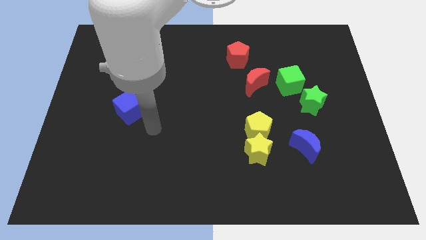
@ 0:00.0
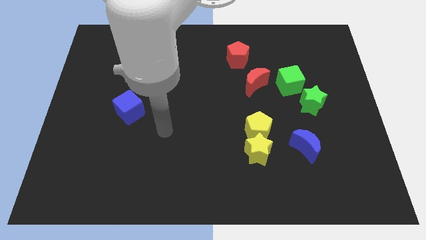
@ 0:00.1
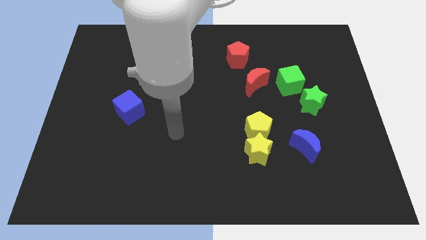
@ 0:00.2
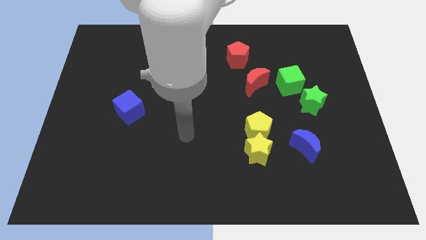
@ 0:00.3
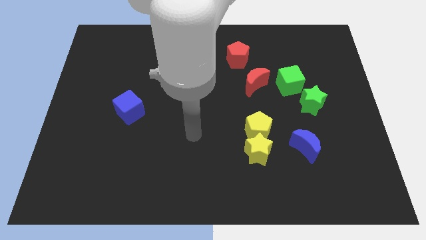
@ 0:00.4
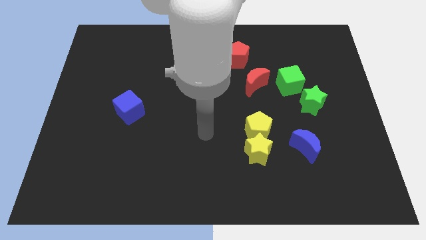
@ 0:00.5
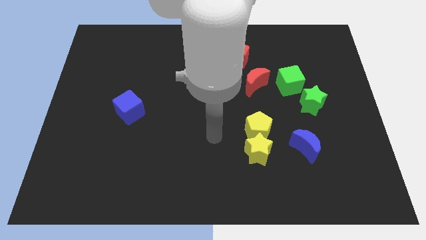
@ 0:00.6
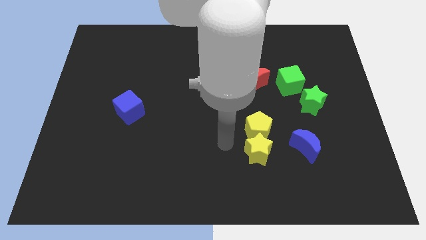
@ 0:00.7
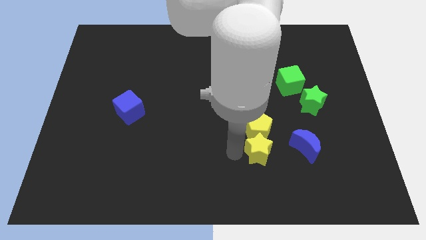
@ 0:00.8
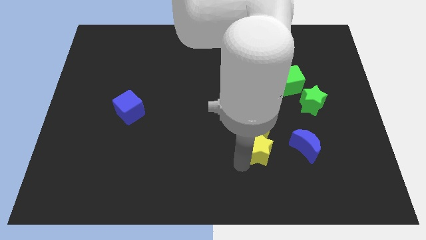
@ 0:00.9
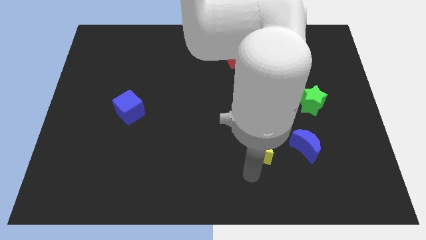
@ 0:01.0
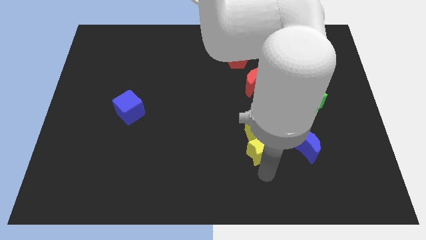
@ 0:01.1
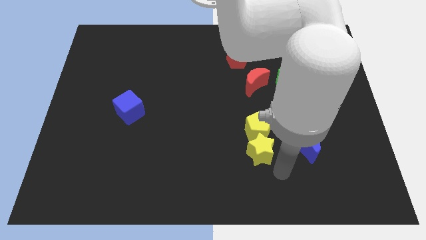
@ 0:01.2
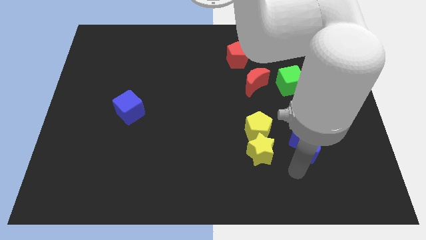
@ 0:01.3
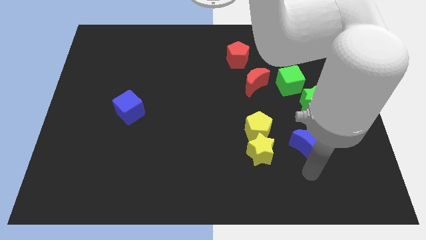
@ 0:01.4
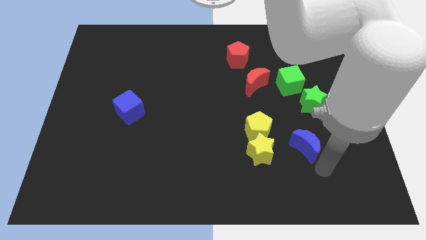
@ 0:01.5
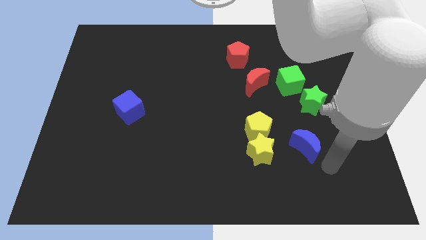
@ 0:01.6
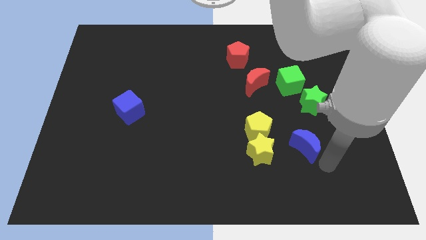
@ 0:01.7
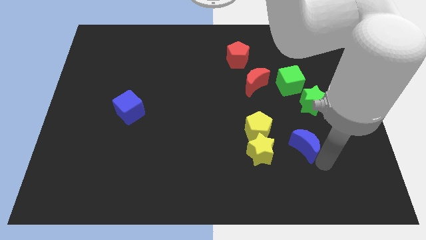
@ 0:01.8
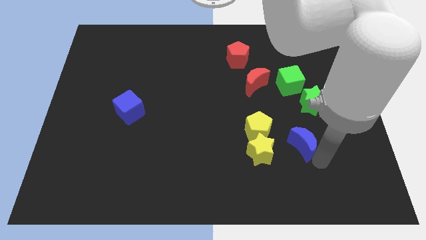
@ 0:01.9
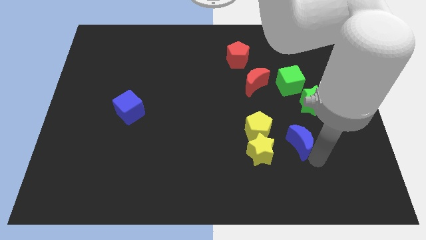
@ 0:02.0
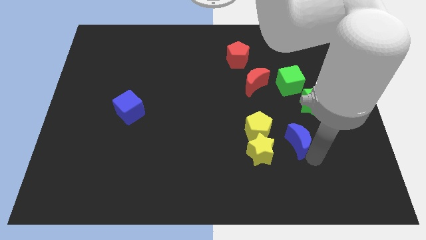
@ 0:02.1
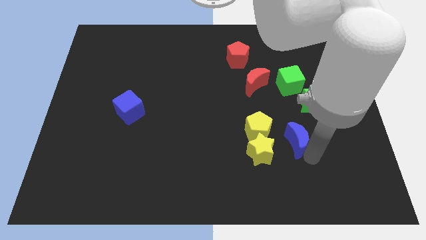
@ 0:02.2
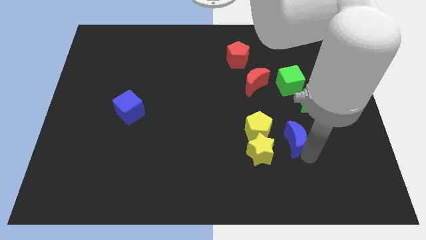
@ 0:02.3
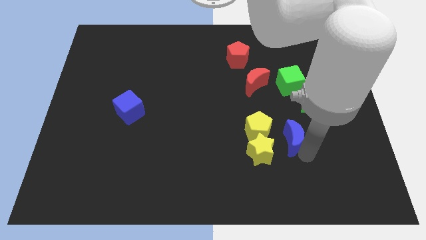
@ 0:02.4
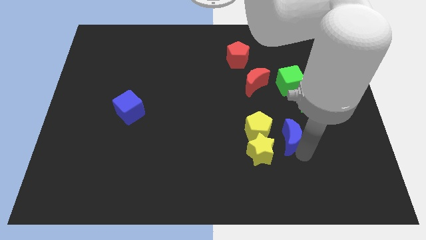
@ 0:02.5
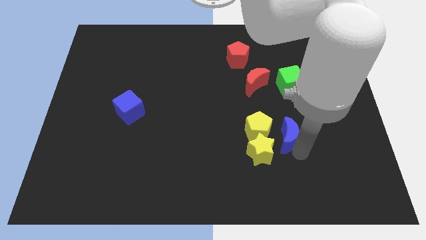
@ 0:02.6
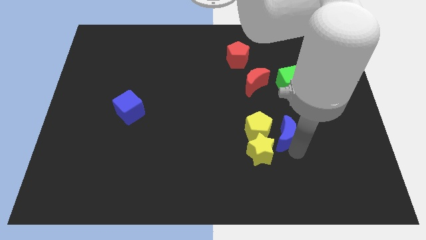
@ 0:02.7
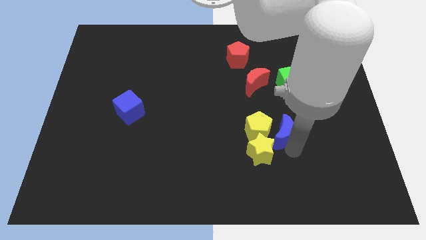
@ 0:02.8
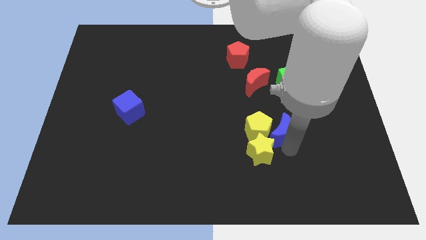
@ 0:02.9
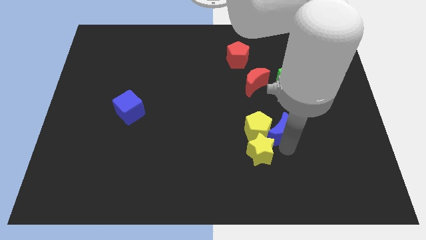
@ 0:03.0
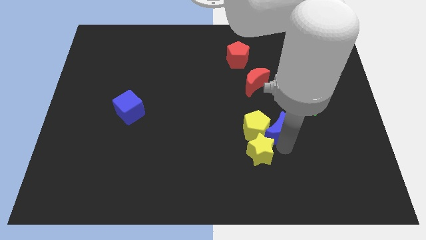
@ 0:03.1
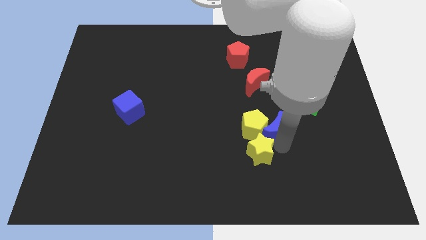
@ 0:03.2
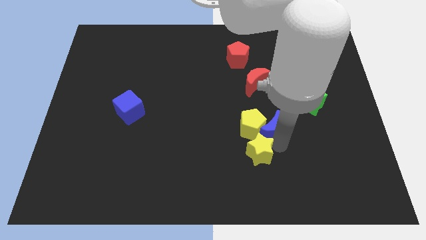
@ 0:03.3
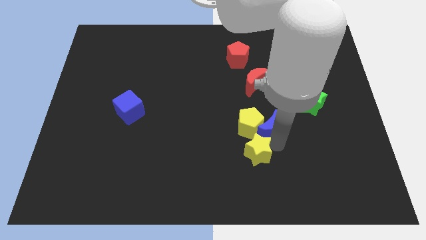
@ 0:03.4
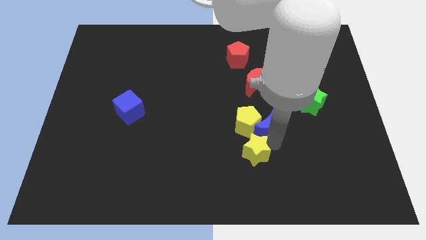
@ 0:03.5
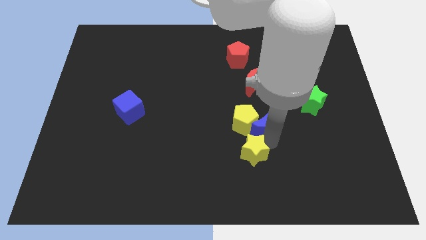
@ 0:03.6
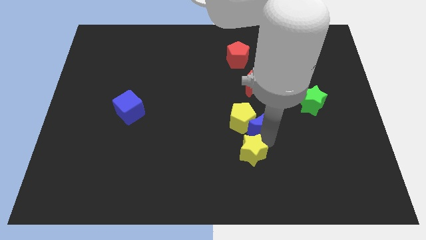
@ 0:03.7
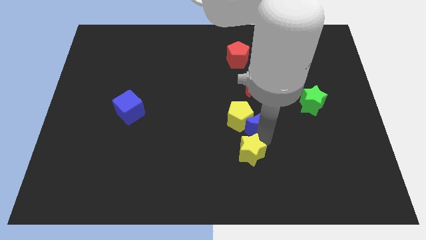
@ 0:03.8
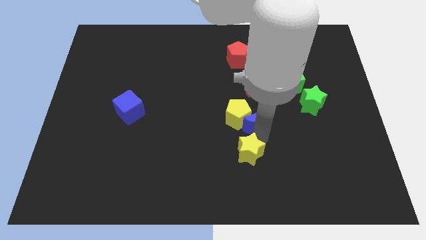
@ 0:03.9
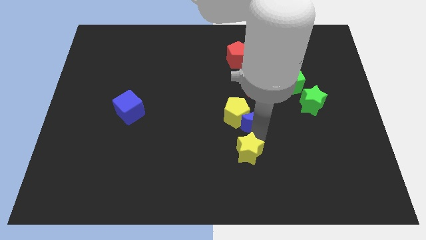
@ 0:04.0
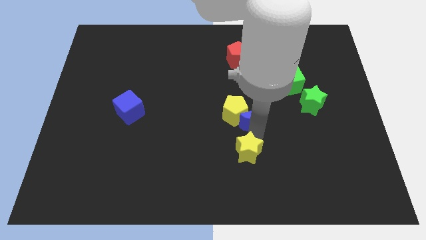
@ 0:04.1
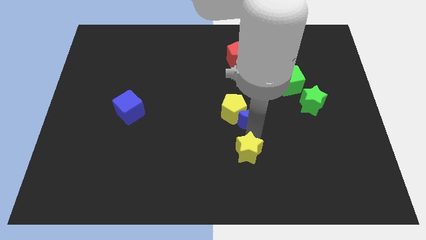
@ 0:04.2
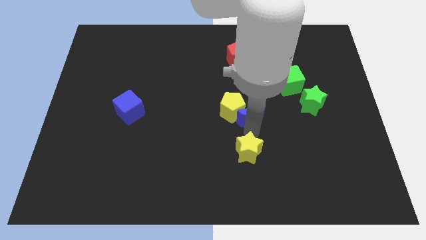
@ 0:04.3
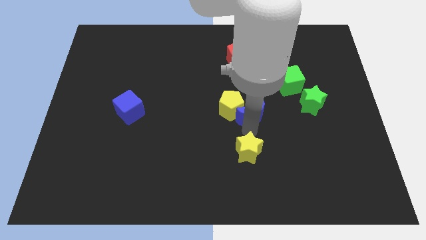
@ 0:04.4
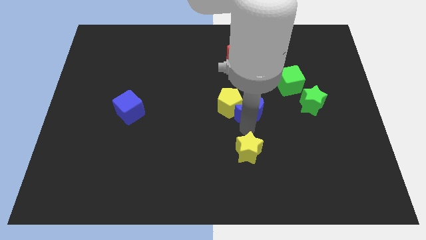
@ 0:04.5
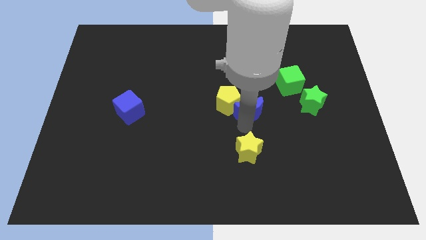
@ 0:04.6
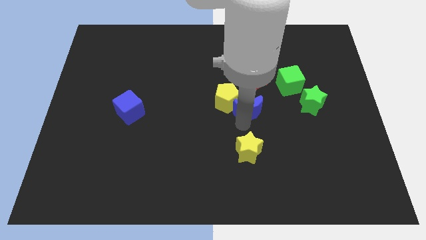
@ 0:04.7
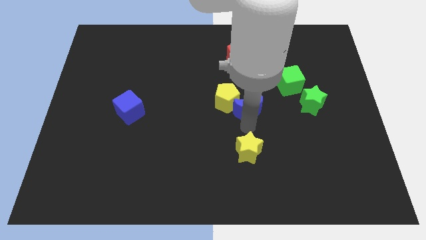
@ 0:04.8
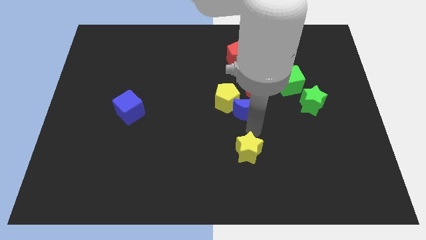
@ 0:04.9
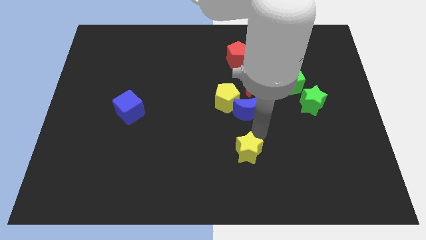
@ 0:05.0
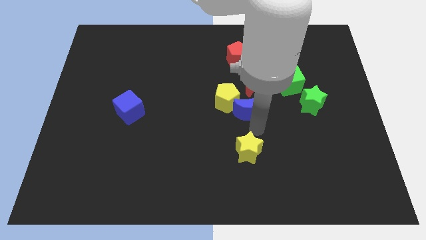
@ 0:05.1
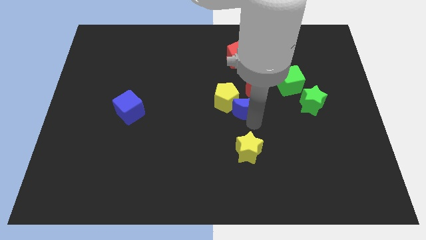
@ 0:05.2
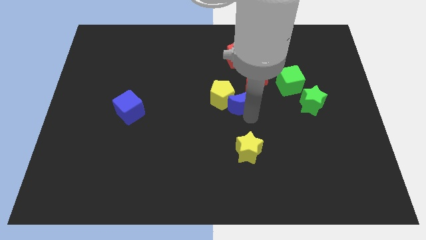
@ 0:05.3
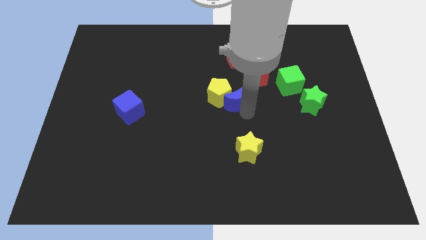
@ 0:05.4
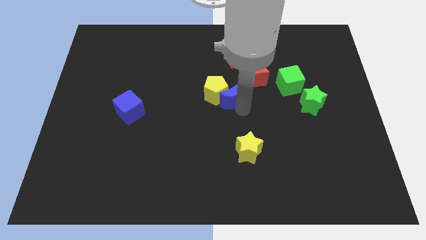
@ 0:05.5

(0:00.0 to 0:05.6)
push the blue moon diagonally upwards and left

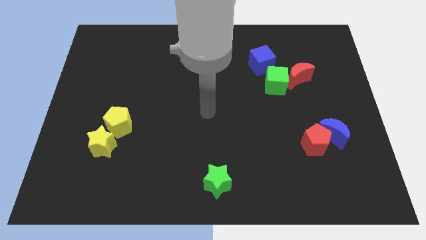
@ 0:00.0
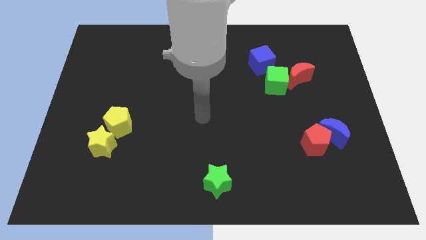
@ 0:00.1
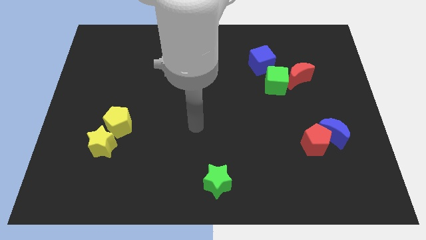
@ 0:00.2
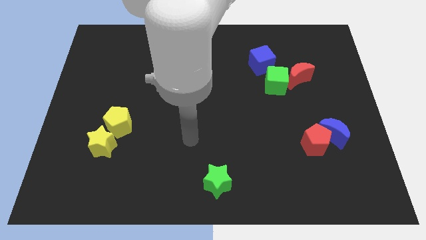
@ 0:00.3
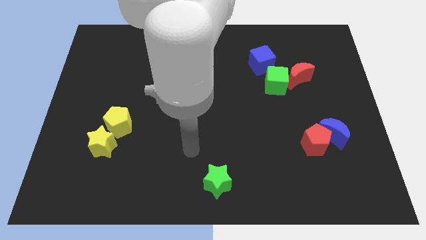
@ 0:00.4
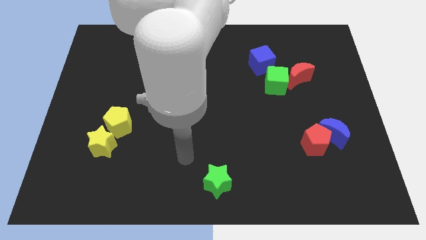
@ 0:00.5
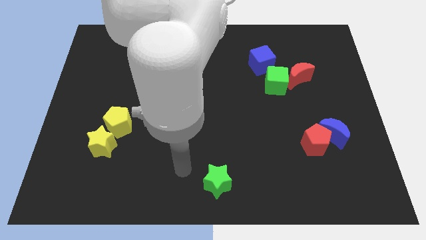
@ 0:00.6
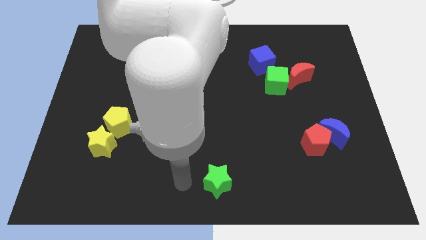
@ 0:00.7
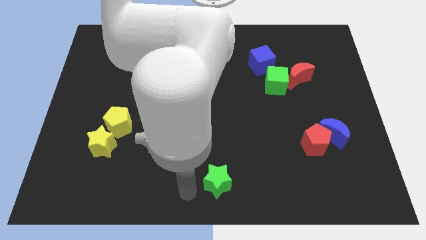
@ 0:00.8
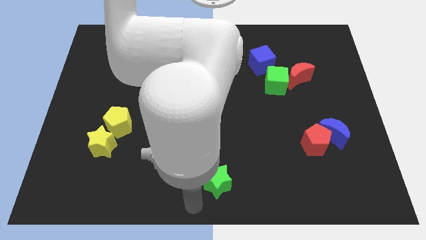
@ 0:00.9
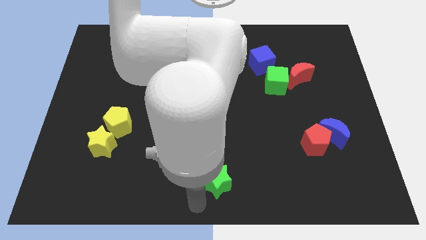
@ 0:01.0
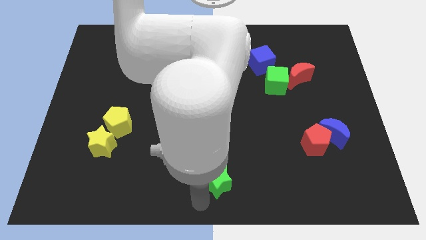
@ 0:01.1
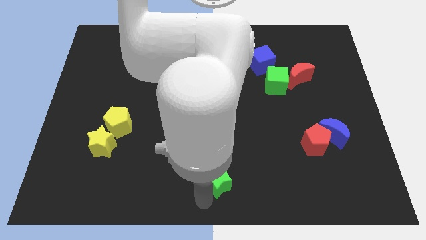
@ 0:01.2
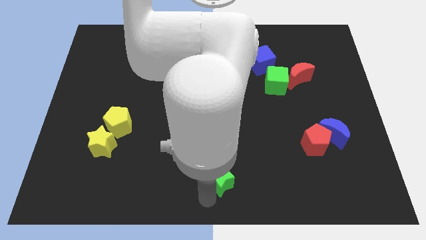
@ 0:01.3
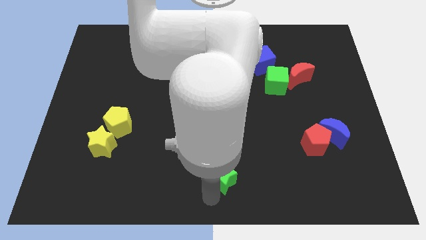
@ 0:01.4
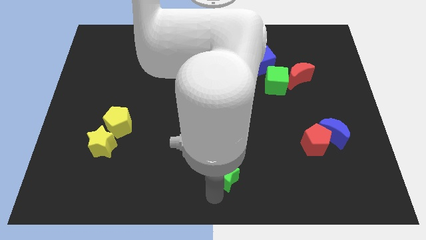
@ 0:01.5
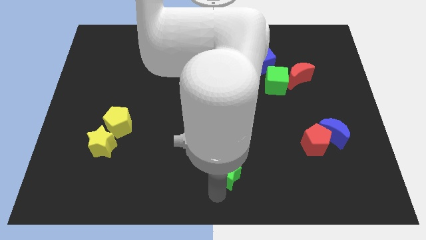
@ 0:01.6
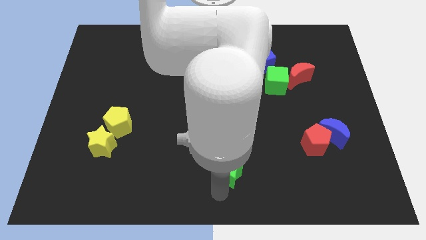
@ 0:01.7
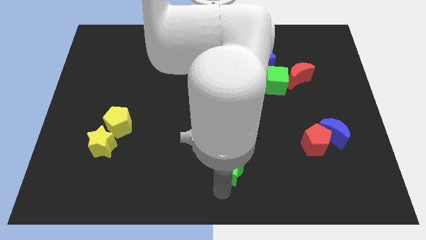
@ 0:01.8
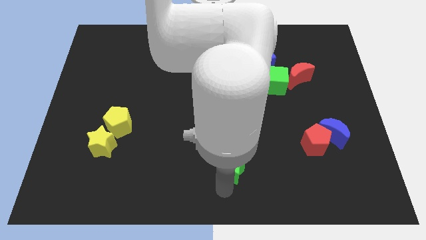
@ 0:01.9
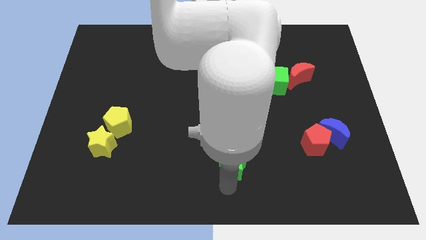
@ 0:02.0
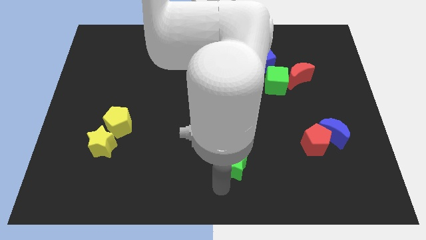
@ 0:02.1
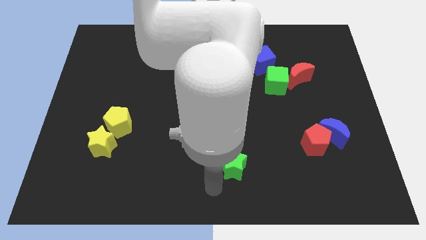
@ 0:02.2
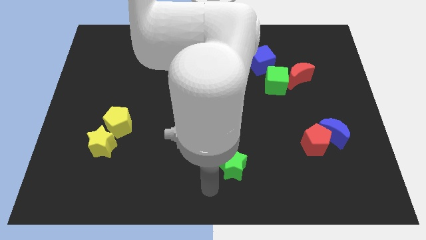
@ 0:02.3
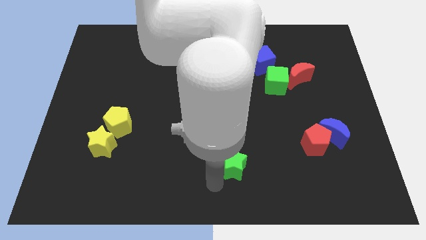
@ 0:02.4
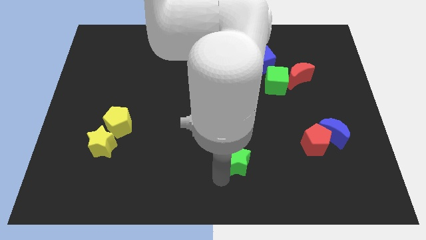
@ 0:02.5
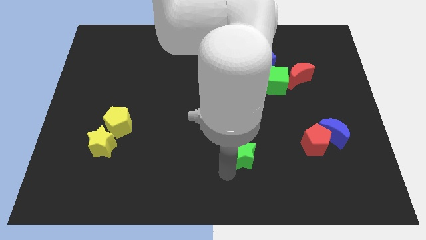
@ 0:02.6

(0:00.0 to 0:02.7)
slightly push the green star up and then right
